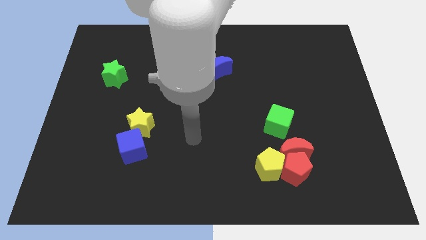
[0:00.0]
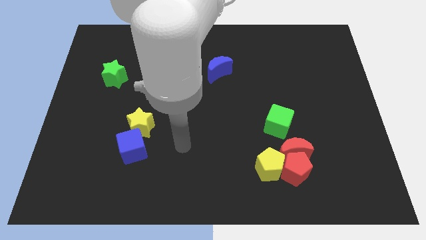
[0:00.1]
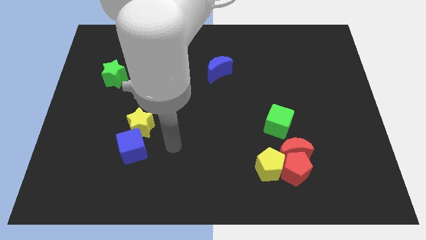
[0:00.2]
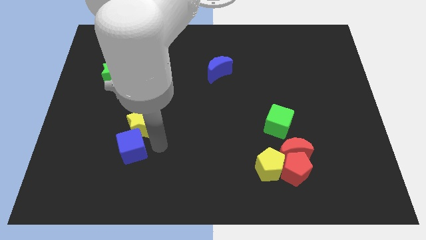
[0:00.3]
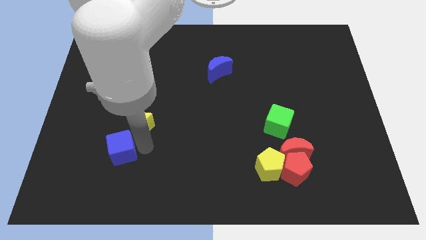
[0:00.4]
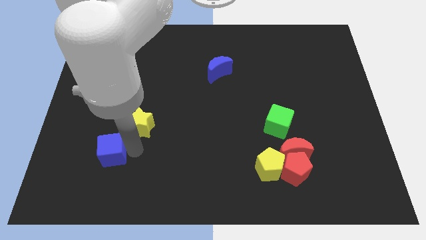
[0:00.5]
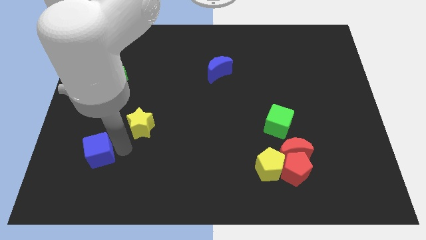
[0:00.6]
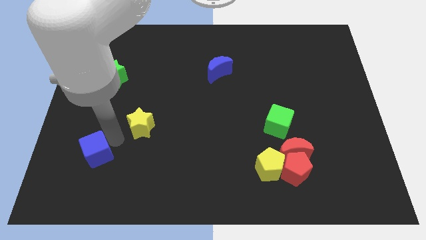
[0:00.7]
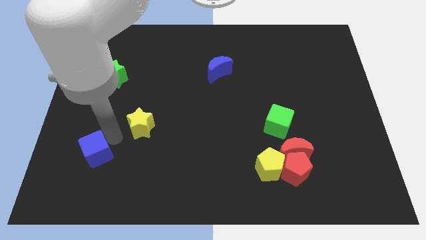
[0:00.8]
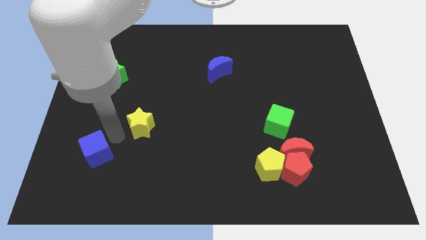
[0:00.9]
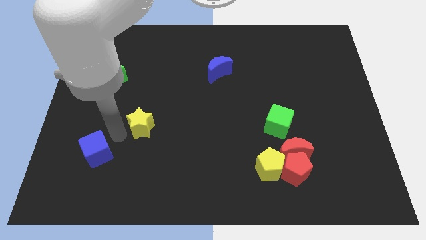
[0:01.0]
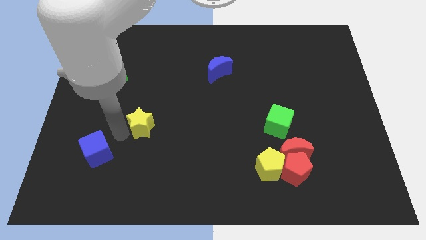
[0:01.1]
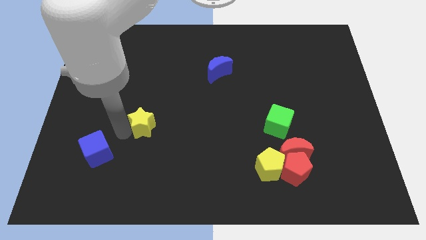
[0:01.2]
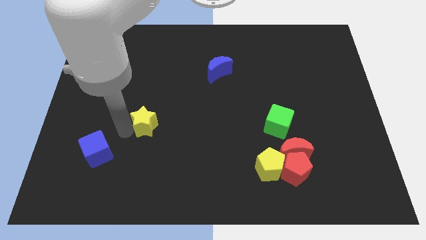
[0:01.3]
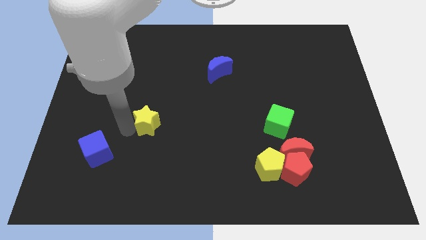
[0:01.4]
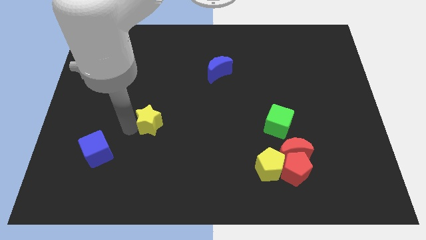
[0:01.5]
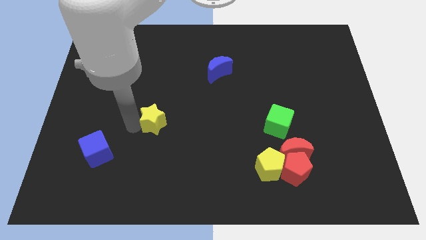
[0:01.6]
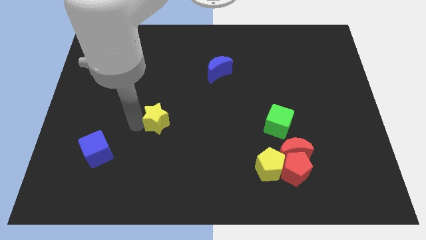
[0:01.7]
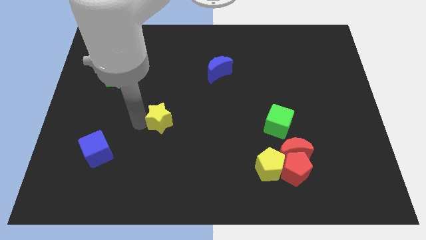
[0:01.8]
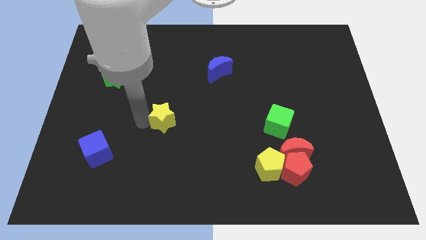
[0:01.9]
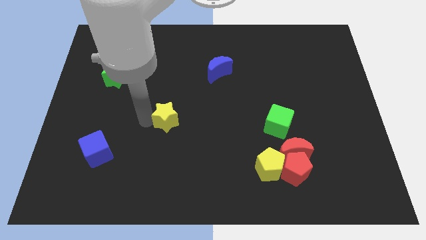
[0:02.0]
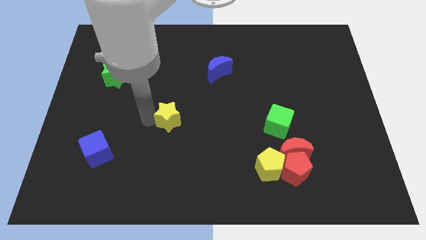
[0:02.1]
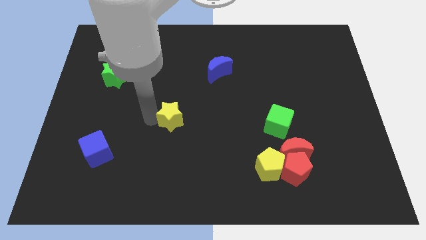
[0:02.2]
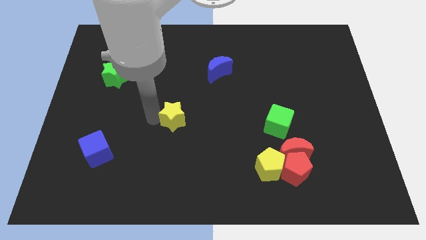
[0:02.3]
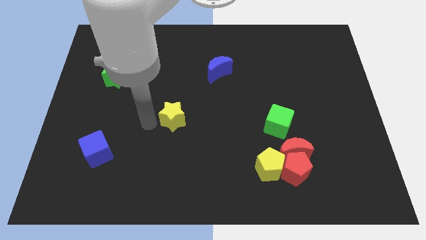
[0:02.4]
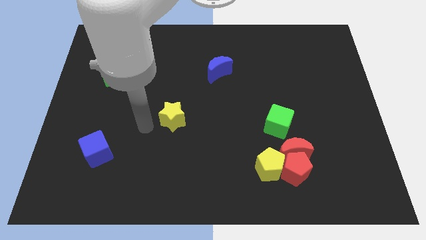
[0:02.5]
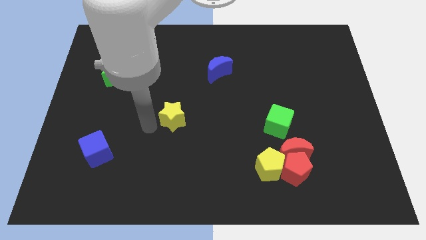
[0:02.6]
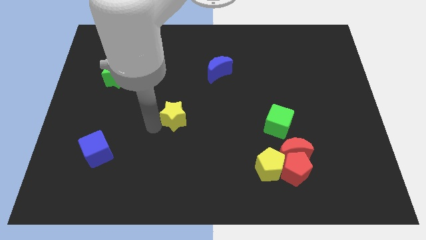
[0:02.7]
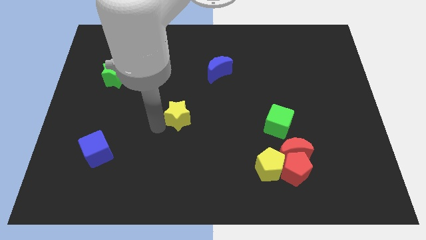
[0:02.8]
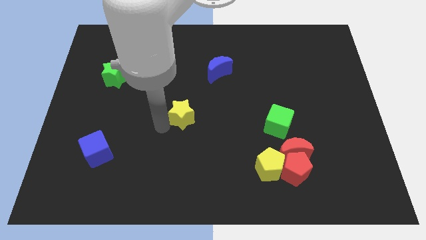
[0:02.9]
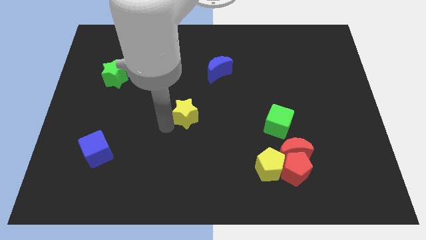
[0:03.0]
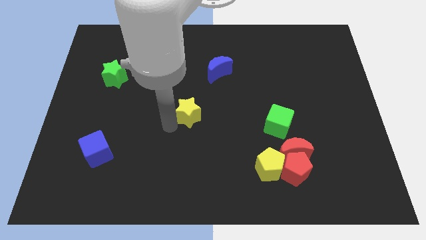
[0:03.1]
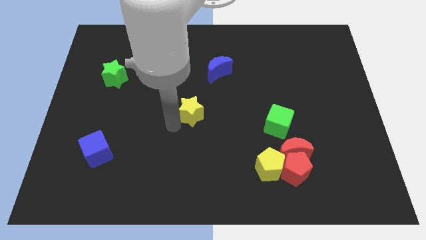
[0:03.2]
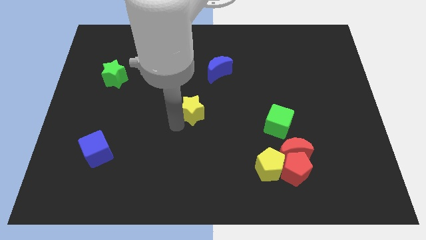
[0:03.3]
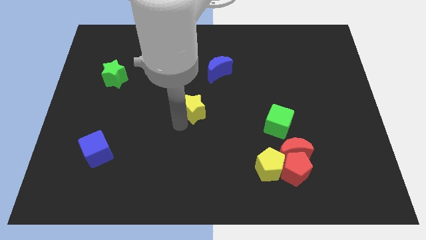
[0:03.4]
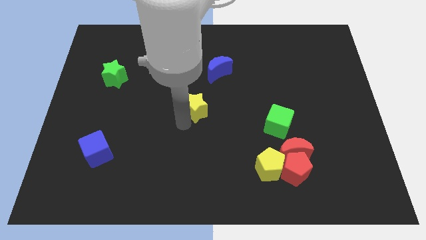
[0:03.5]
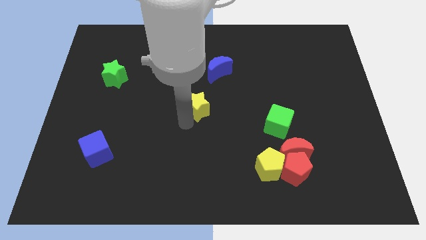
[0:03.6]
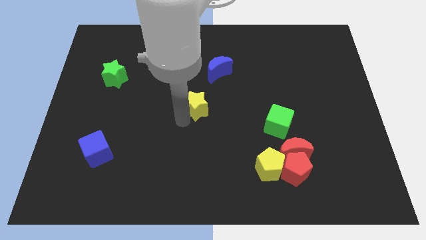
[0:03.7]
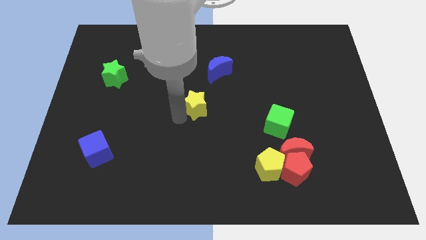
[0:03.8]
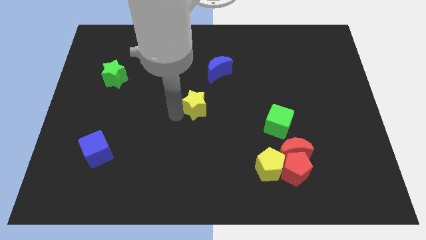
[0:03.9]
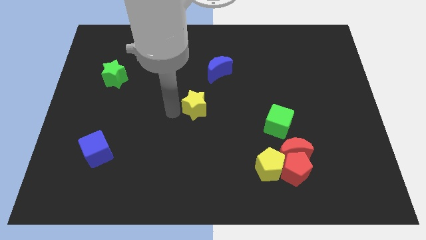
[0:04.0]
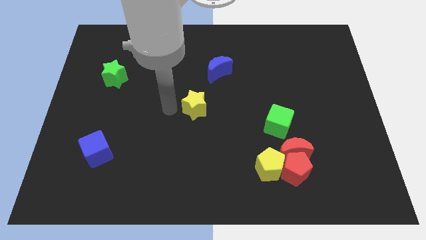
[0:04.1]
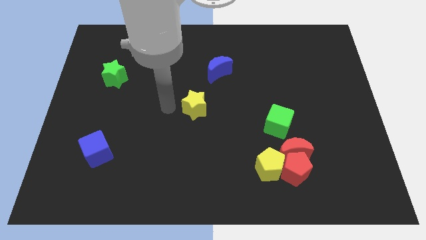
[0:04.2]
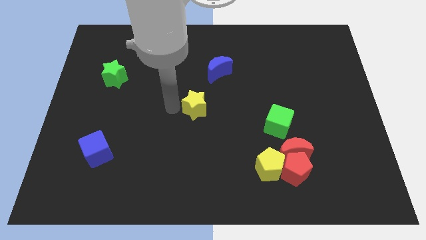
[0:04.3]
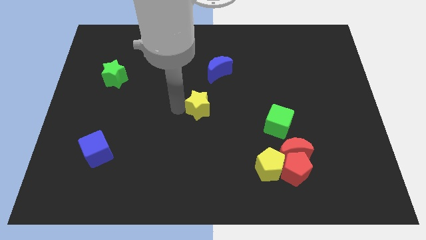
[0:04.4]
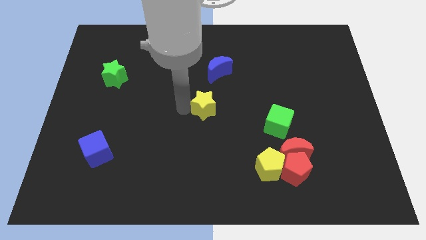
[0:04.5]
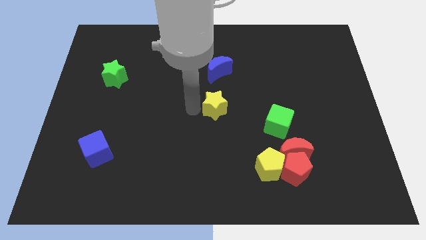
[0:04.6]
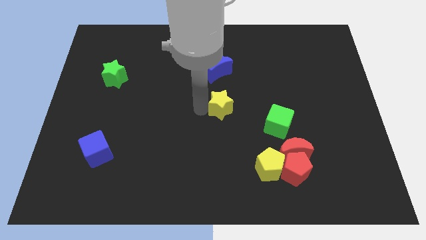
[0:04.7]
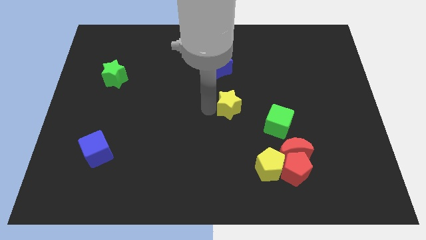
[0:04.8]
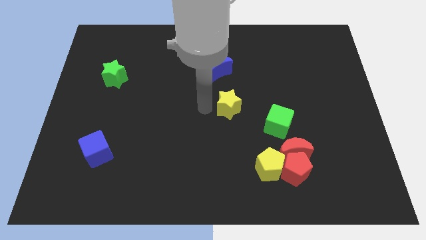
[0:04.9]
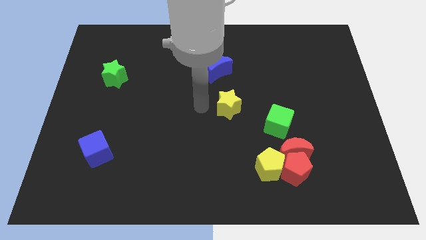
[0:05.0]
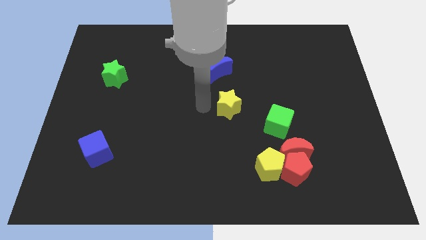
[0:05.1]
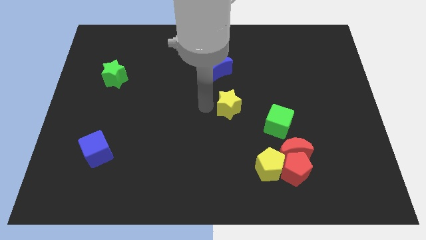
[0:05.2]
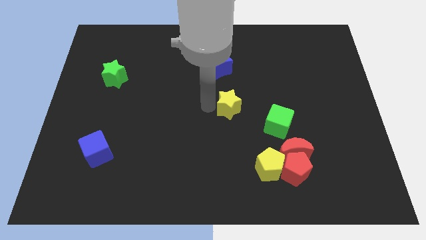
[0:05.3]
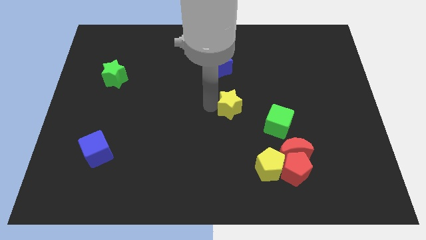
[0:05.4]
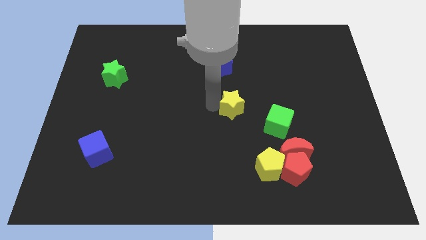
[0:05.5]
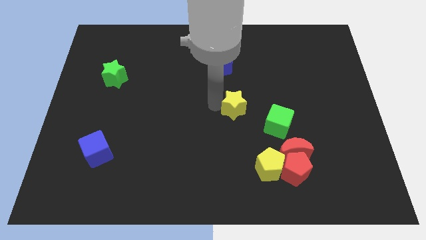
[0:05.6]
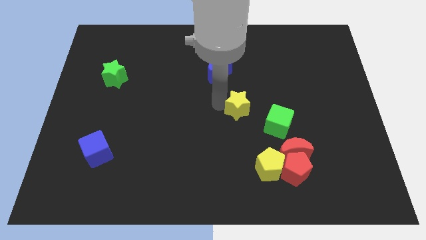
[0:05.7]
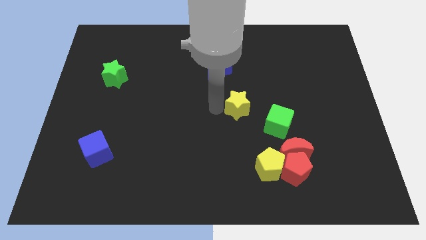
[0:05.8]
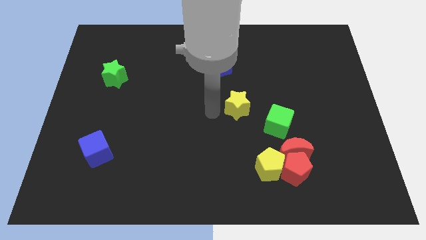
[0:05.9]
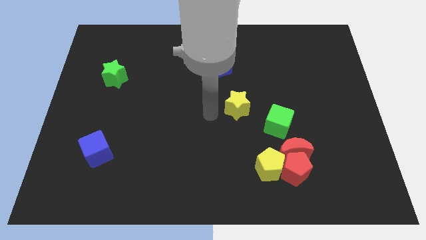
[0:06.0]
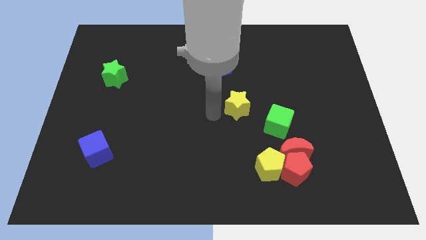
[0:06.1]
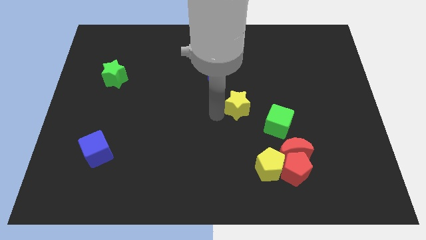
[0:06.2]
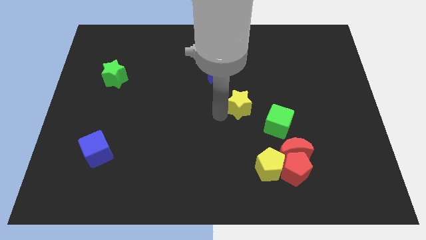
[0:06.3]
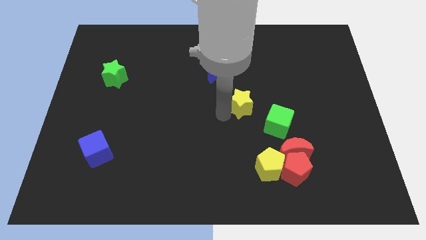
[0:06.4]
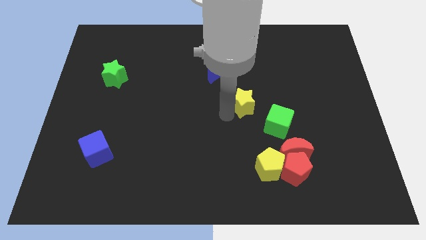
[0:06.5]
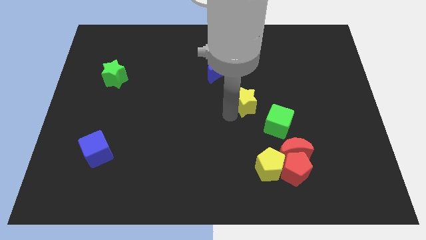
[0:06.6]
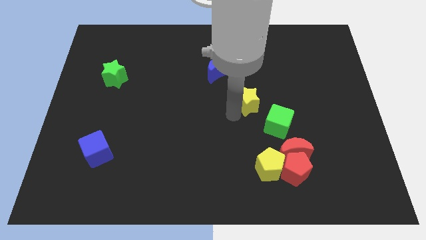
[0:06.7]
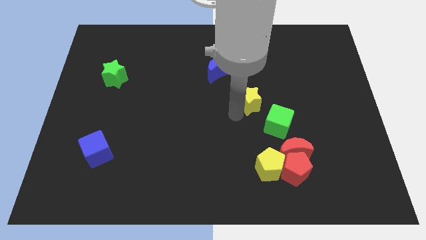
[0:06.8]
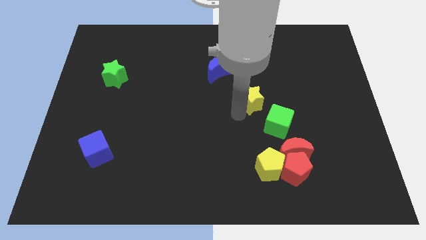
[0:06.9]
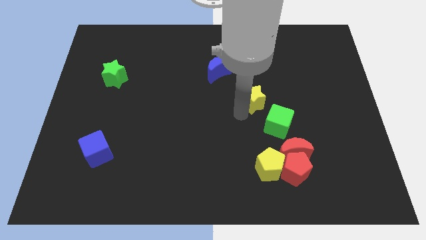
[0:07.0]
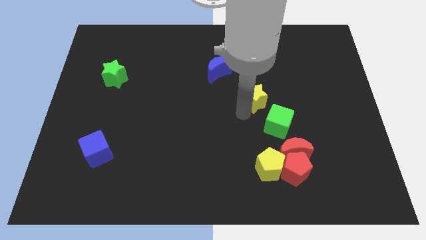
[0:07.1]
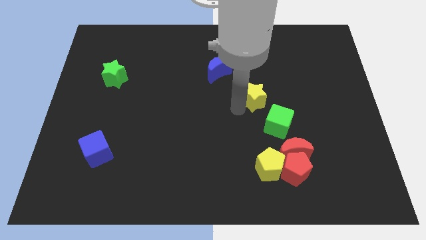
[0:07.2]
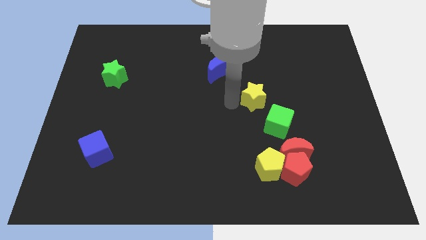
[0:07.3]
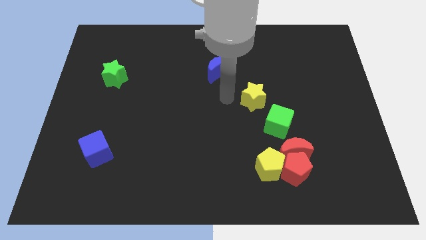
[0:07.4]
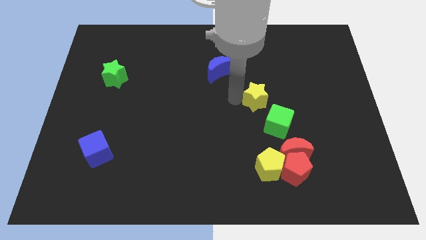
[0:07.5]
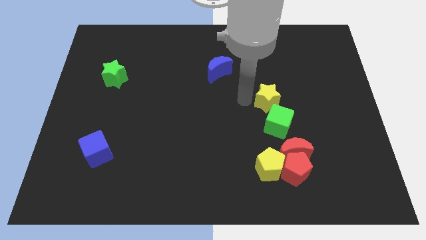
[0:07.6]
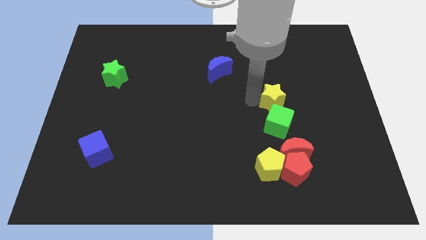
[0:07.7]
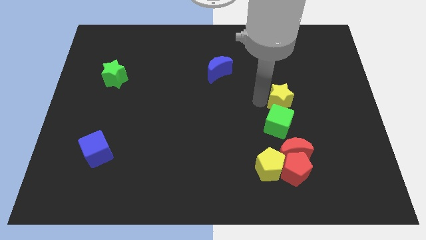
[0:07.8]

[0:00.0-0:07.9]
push the yellow star to the top right side of the green cube
